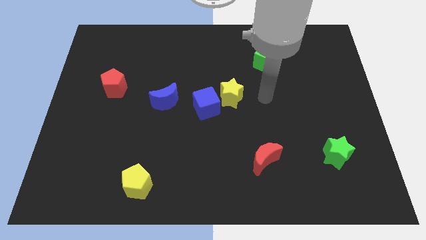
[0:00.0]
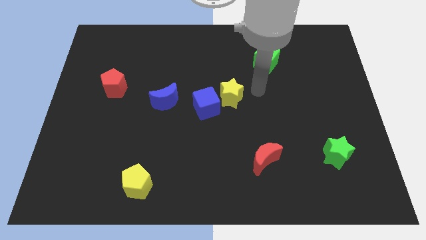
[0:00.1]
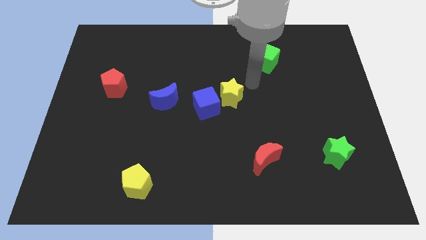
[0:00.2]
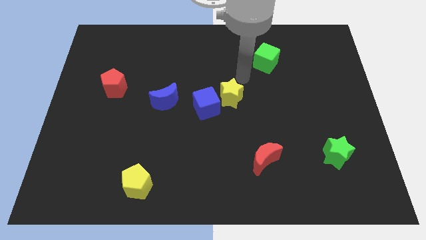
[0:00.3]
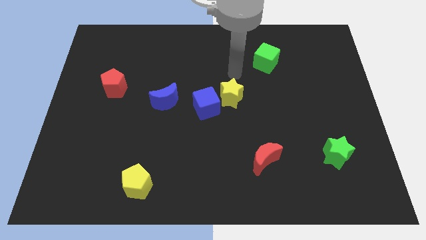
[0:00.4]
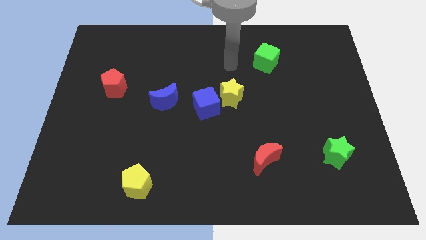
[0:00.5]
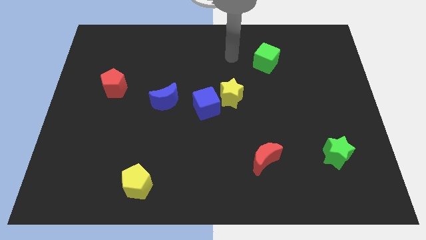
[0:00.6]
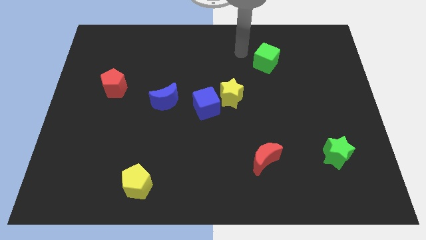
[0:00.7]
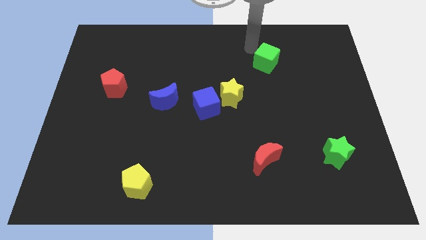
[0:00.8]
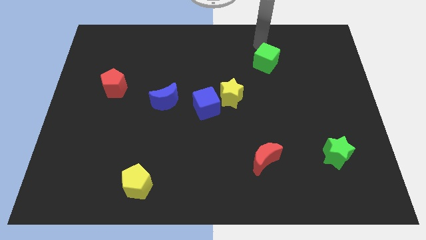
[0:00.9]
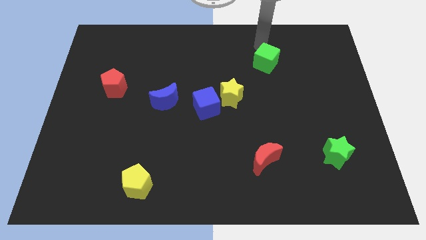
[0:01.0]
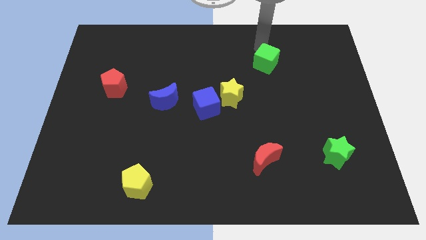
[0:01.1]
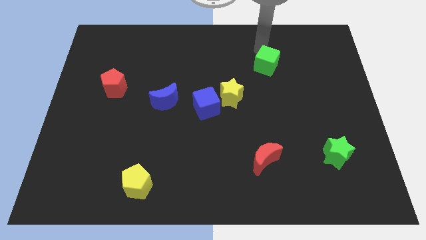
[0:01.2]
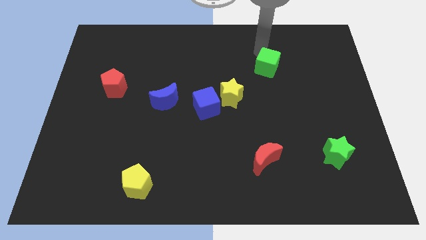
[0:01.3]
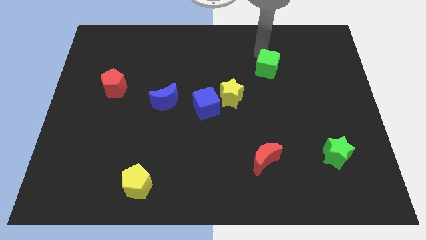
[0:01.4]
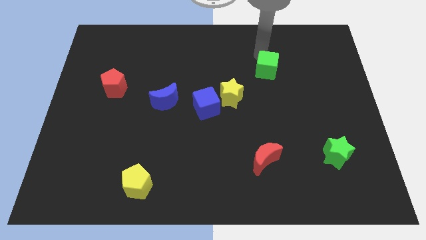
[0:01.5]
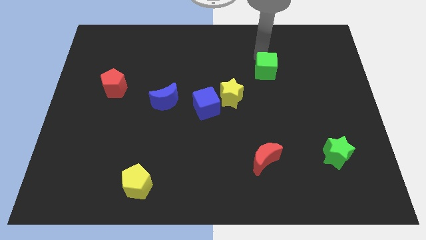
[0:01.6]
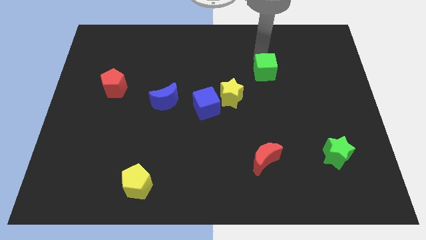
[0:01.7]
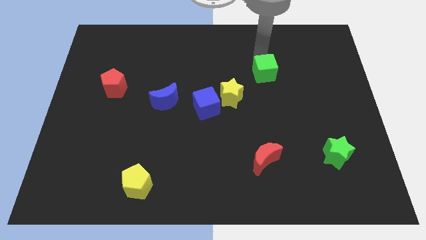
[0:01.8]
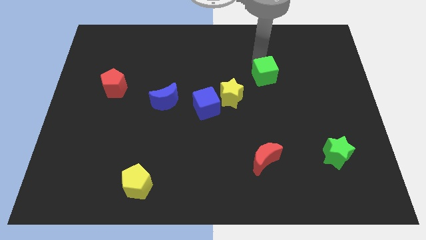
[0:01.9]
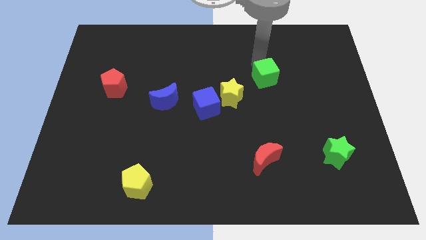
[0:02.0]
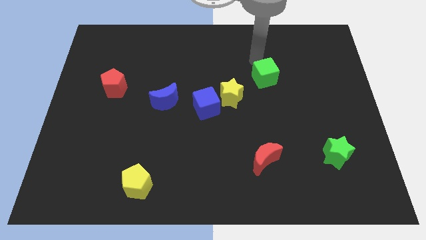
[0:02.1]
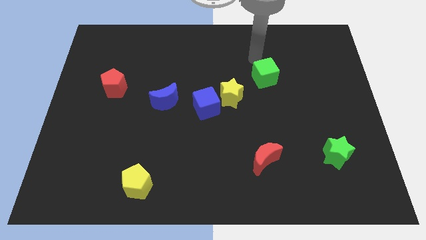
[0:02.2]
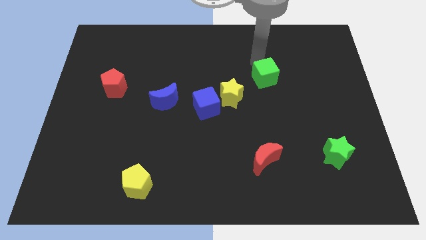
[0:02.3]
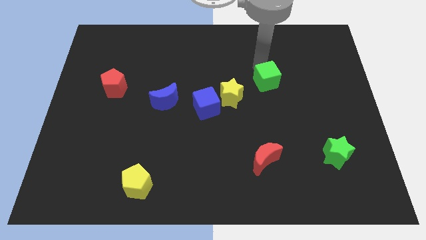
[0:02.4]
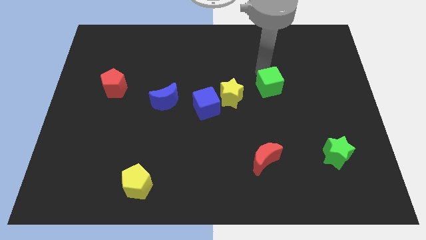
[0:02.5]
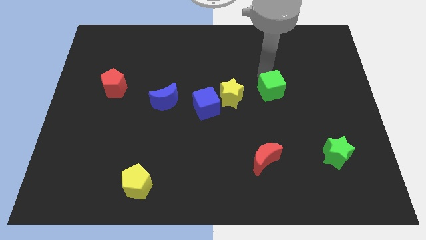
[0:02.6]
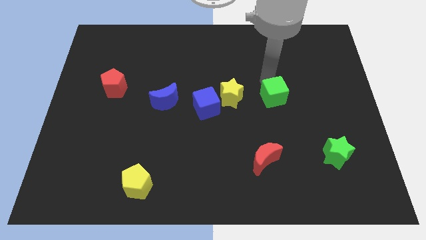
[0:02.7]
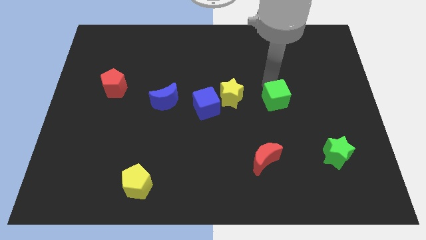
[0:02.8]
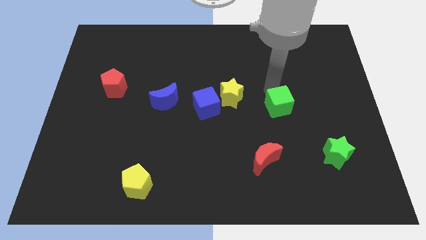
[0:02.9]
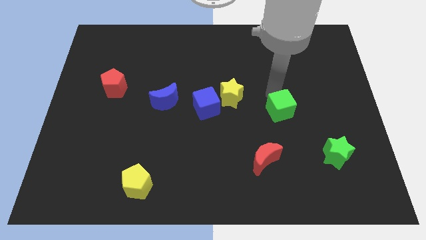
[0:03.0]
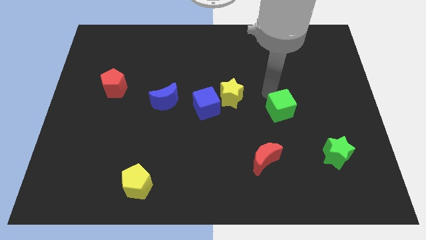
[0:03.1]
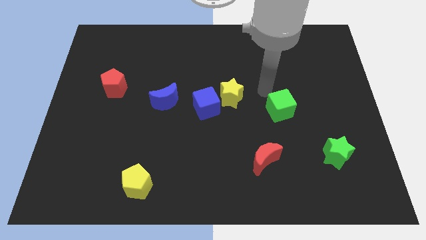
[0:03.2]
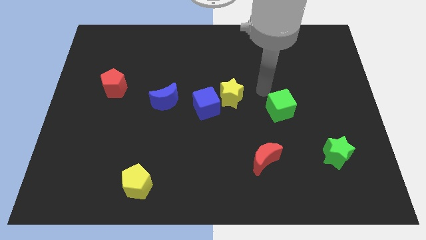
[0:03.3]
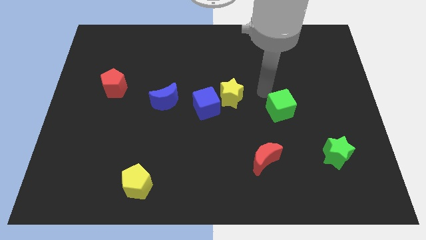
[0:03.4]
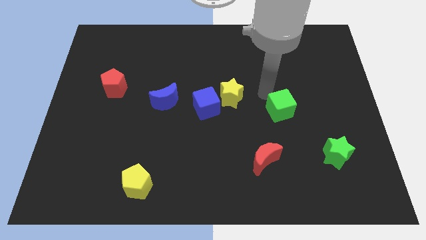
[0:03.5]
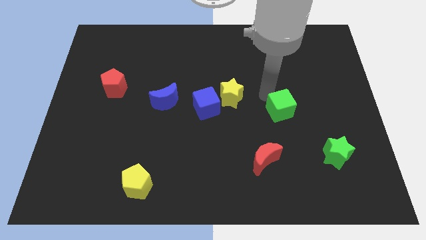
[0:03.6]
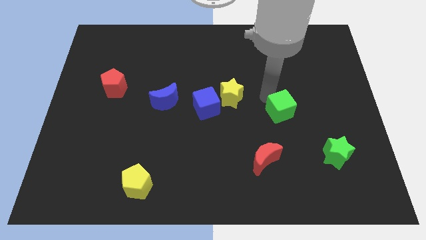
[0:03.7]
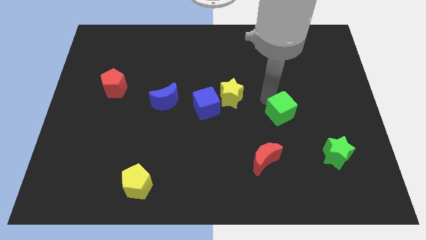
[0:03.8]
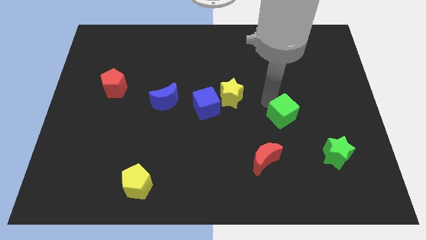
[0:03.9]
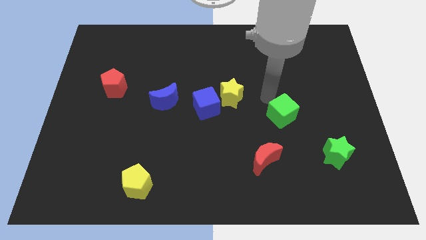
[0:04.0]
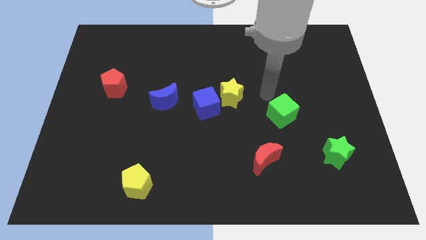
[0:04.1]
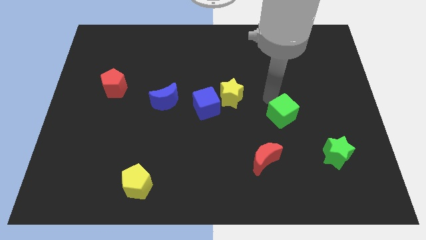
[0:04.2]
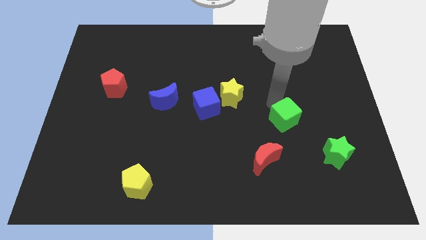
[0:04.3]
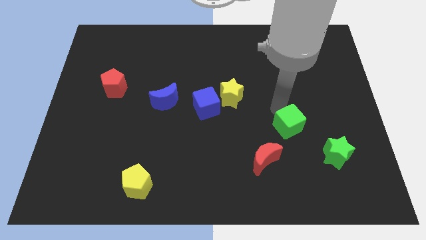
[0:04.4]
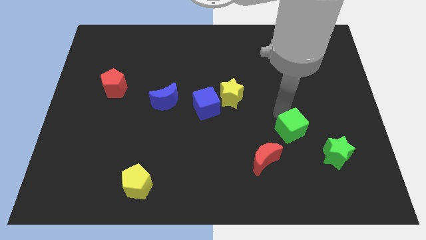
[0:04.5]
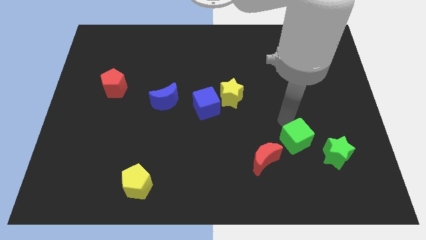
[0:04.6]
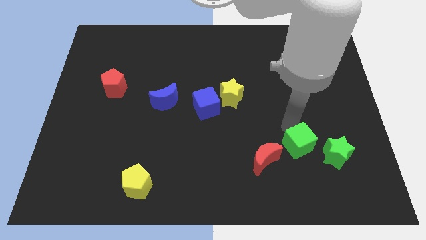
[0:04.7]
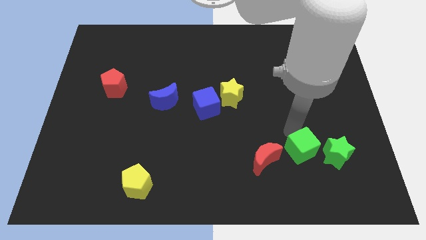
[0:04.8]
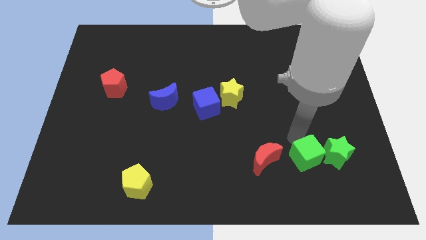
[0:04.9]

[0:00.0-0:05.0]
move the green cube diagonally down and to the left of the green star
